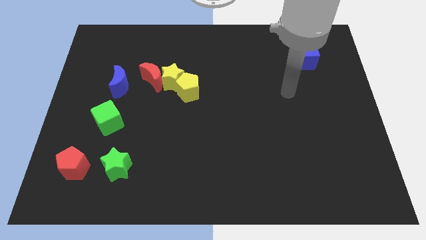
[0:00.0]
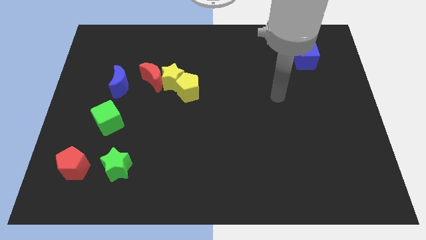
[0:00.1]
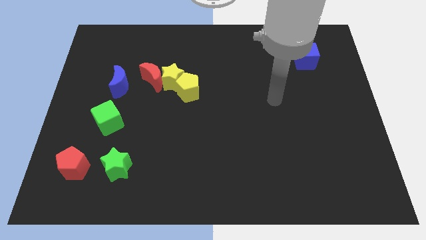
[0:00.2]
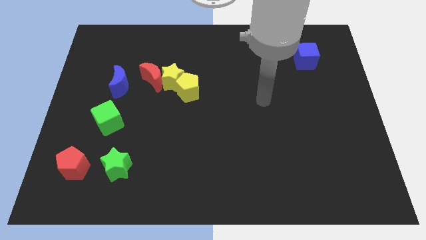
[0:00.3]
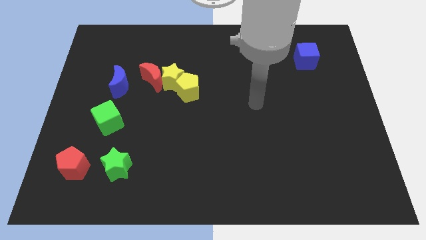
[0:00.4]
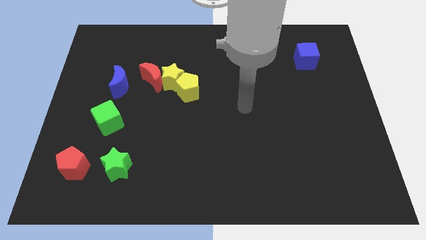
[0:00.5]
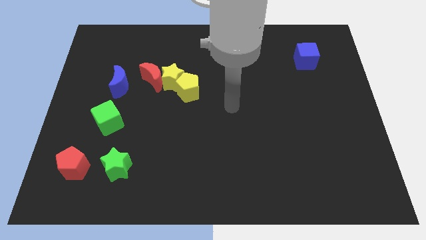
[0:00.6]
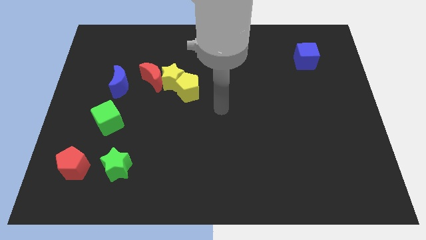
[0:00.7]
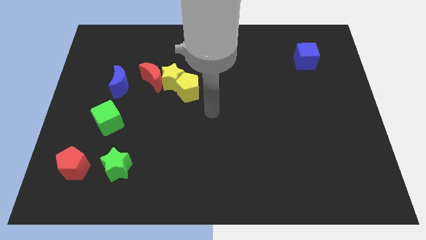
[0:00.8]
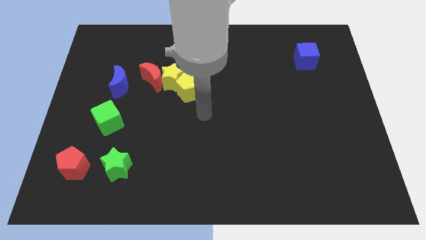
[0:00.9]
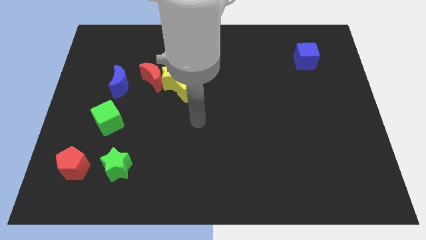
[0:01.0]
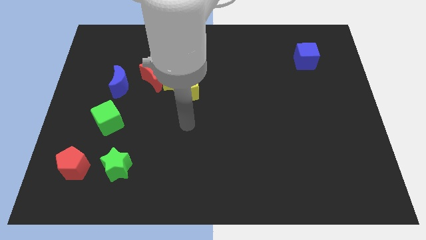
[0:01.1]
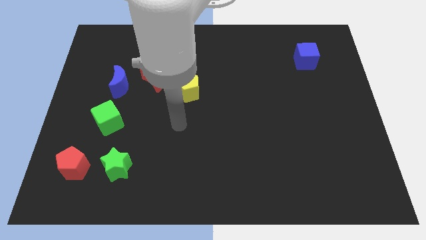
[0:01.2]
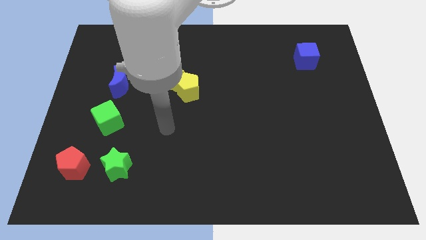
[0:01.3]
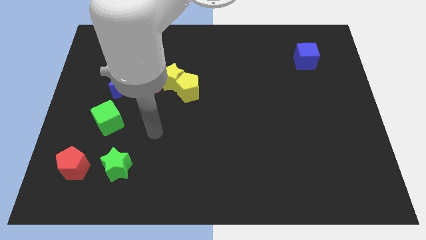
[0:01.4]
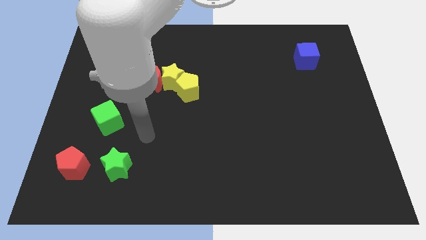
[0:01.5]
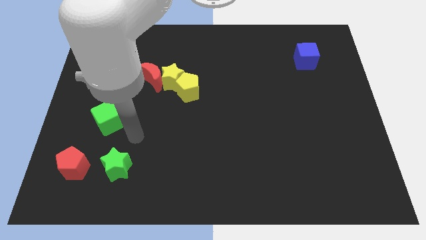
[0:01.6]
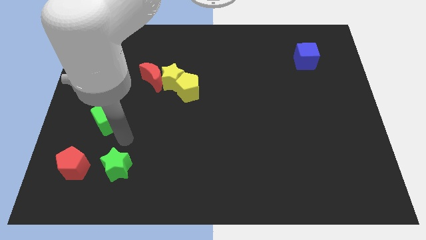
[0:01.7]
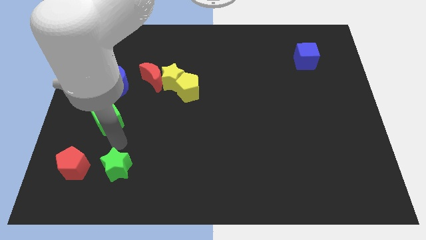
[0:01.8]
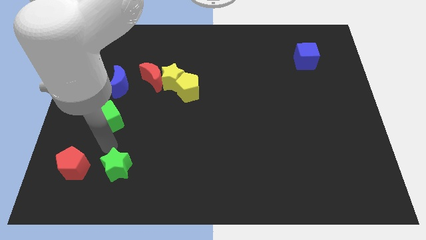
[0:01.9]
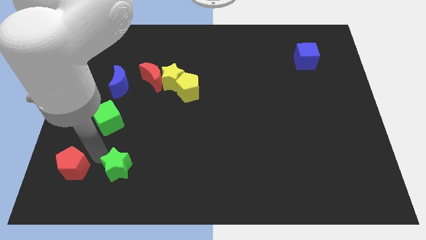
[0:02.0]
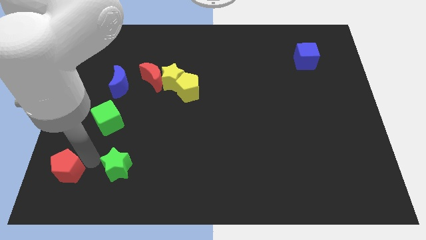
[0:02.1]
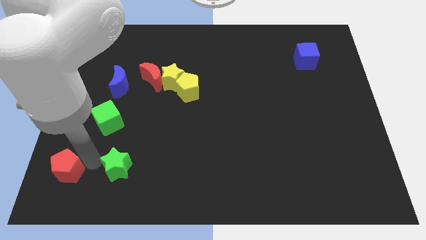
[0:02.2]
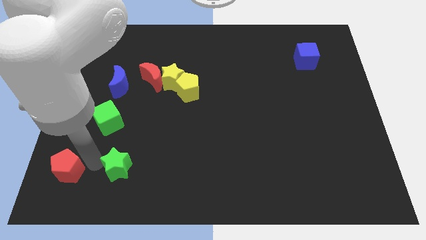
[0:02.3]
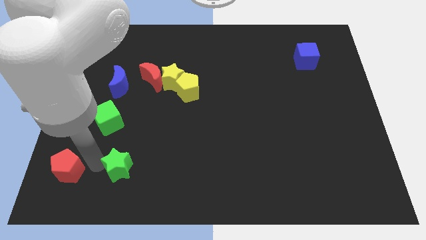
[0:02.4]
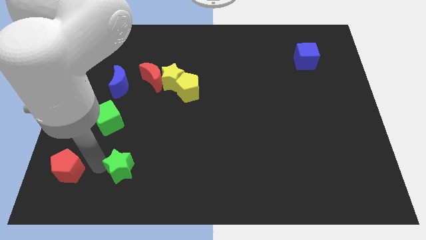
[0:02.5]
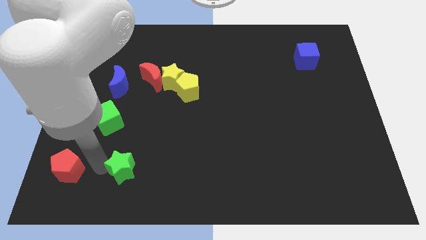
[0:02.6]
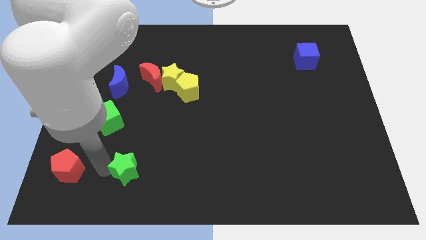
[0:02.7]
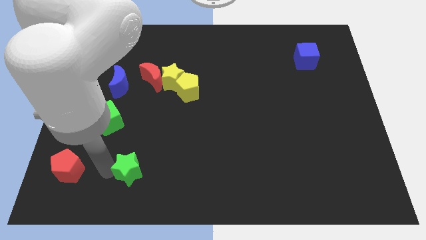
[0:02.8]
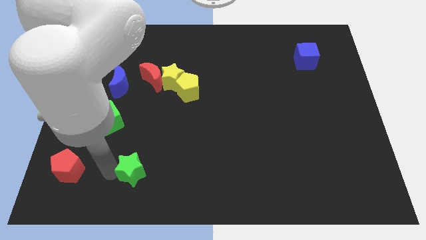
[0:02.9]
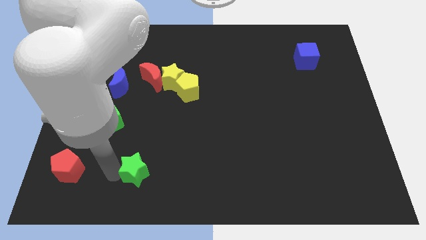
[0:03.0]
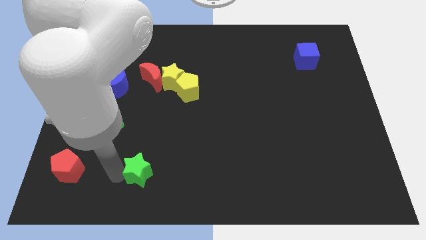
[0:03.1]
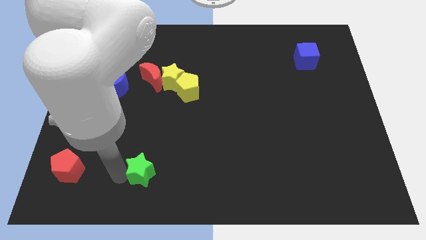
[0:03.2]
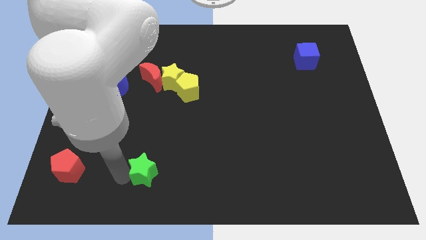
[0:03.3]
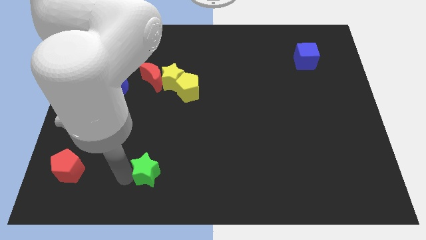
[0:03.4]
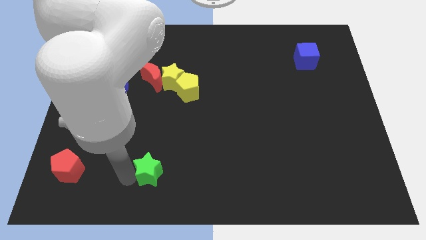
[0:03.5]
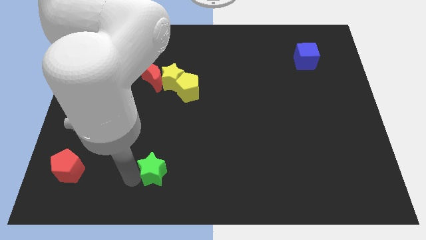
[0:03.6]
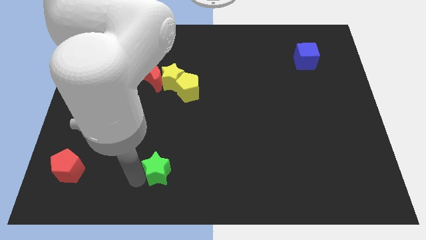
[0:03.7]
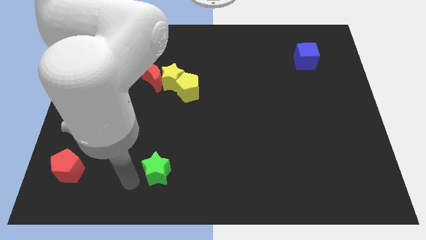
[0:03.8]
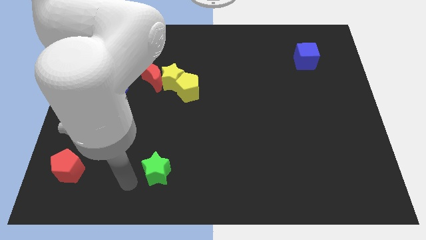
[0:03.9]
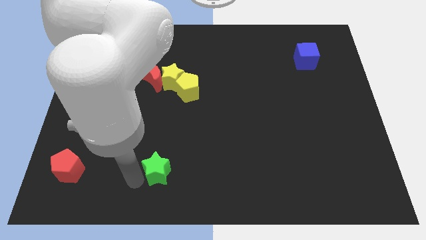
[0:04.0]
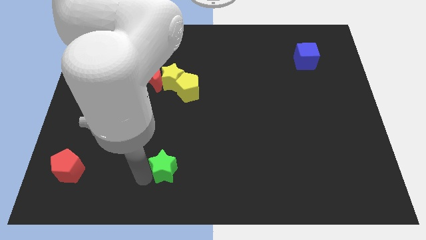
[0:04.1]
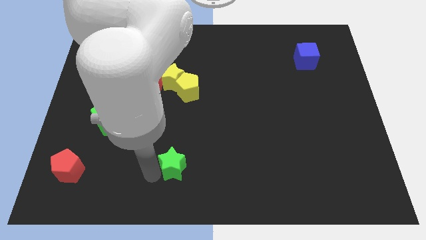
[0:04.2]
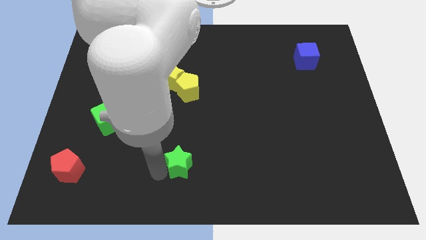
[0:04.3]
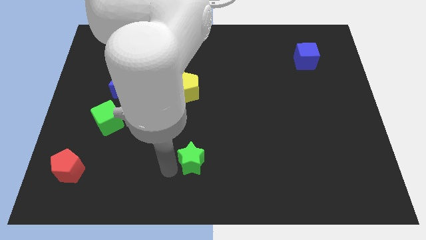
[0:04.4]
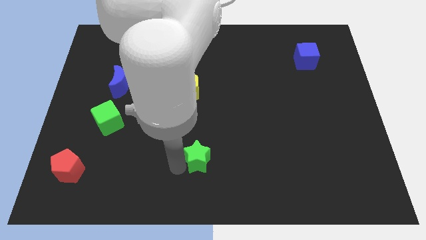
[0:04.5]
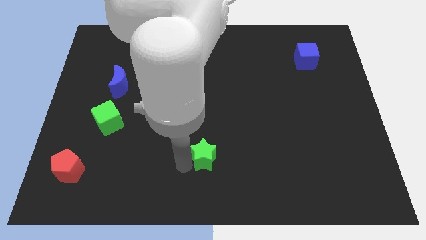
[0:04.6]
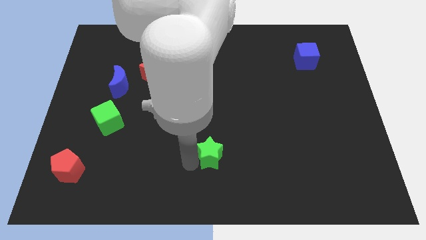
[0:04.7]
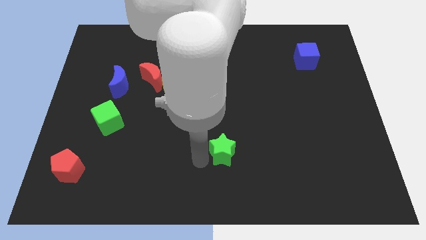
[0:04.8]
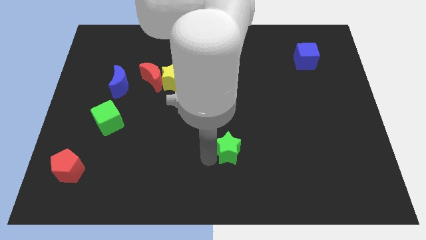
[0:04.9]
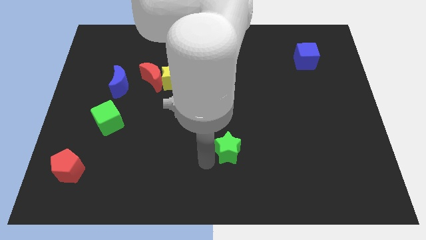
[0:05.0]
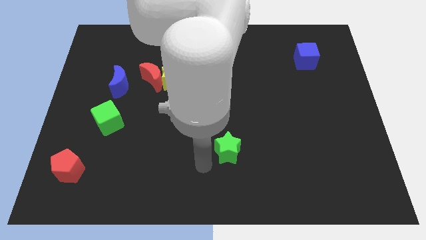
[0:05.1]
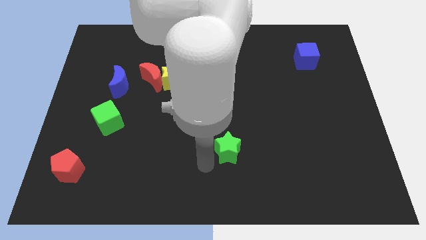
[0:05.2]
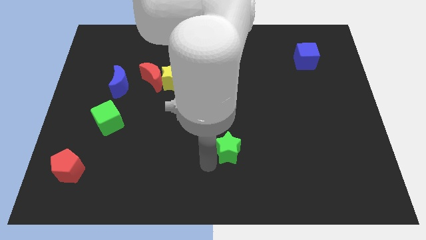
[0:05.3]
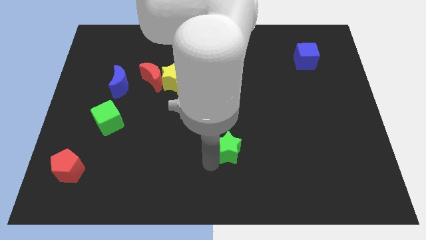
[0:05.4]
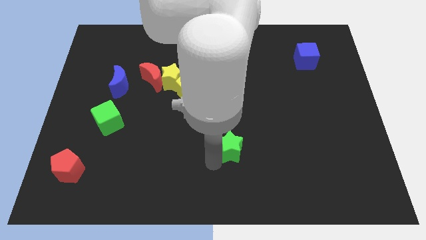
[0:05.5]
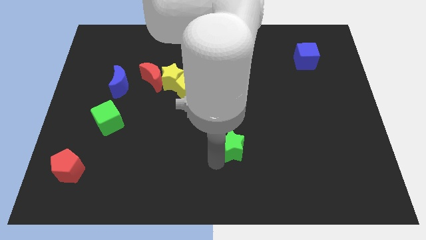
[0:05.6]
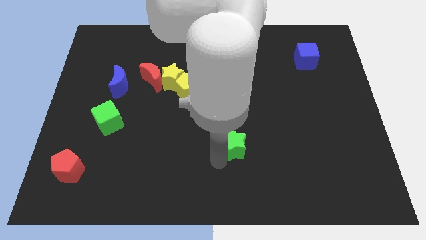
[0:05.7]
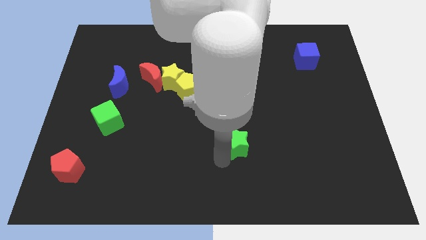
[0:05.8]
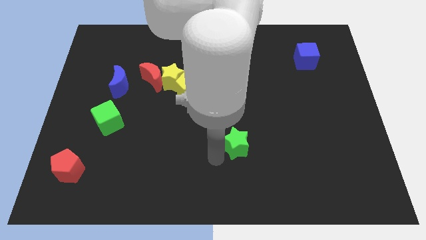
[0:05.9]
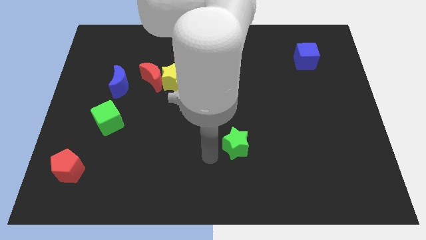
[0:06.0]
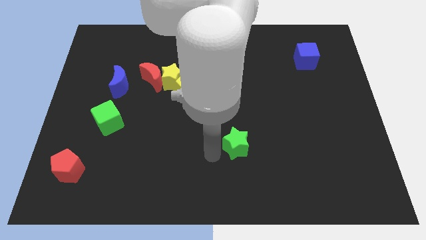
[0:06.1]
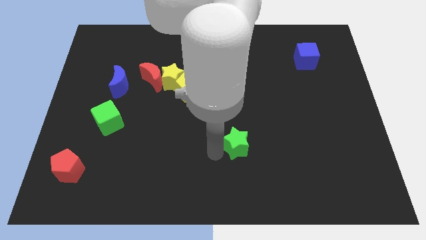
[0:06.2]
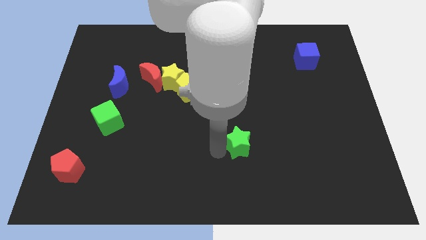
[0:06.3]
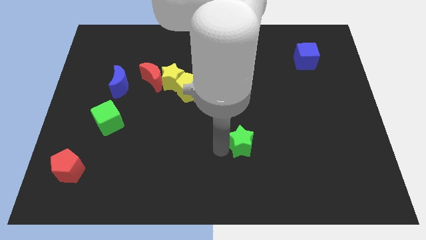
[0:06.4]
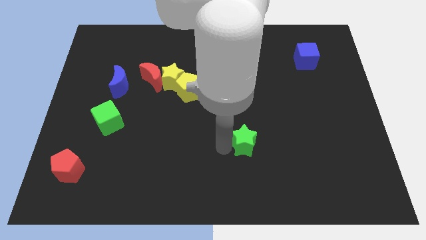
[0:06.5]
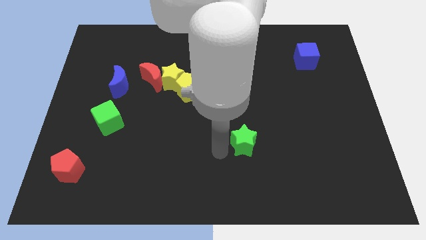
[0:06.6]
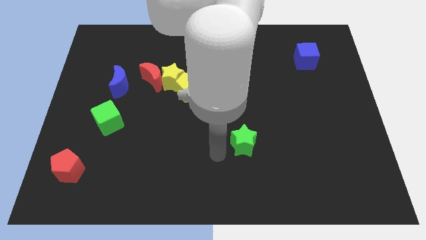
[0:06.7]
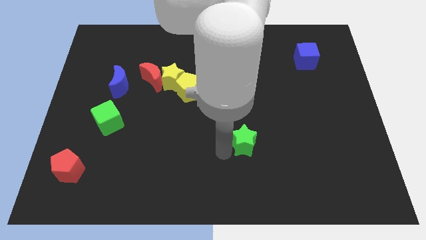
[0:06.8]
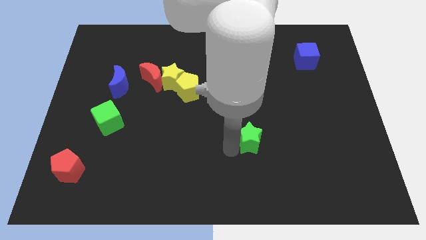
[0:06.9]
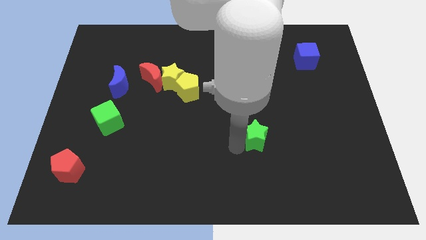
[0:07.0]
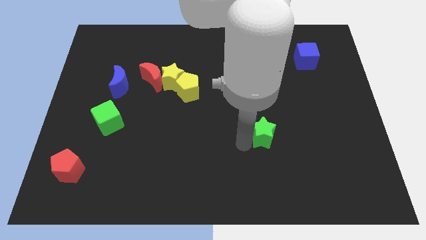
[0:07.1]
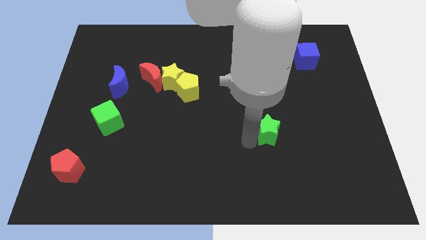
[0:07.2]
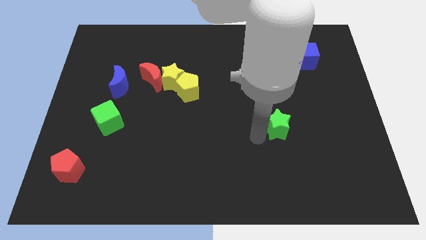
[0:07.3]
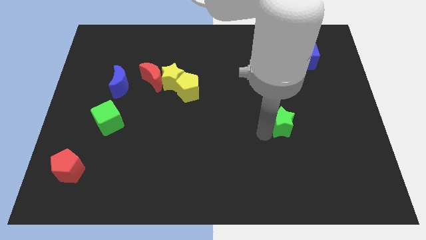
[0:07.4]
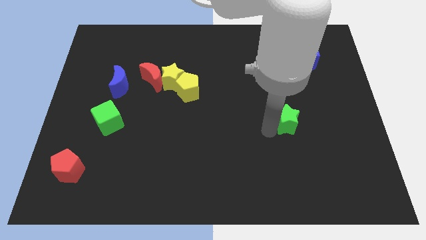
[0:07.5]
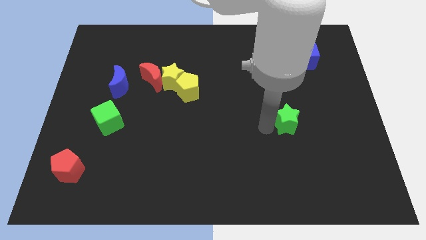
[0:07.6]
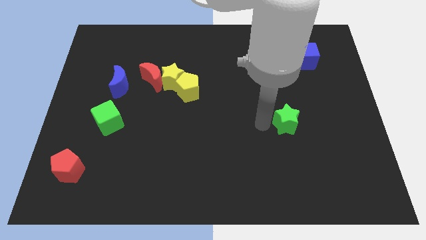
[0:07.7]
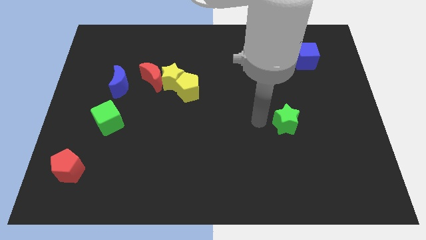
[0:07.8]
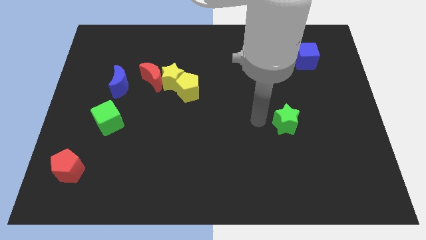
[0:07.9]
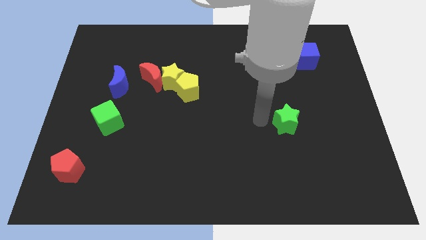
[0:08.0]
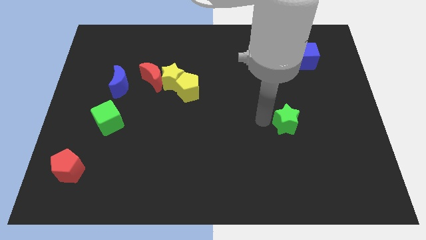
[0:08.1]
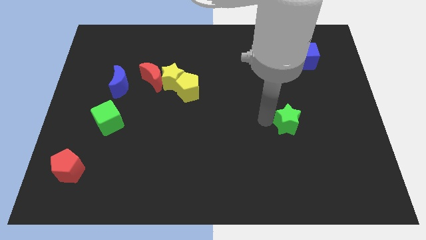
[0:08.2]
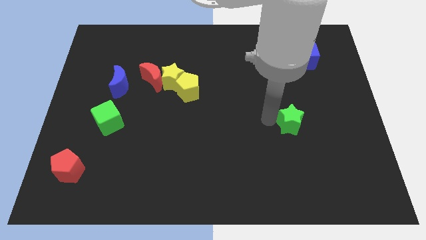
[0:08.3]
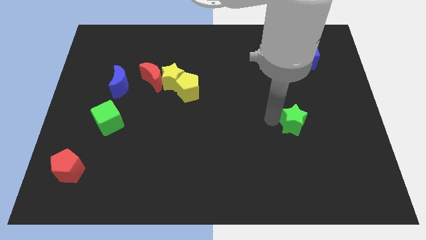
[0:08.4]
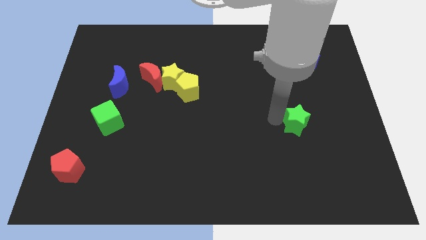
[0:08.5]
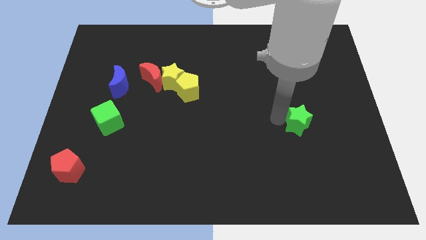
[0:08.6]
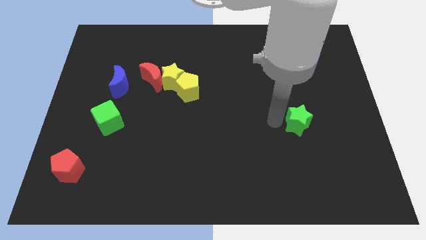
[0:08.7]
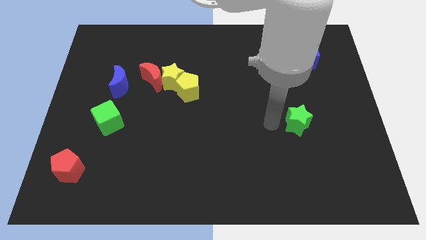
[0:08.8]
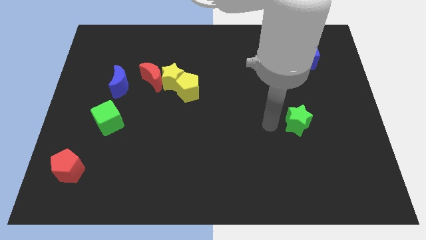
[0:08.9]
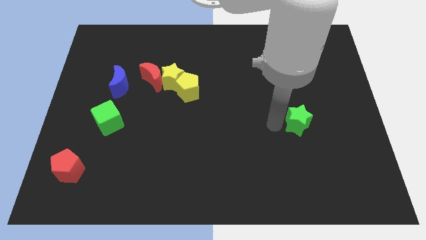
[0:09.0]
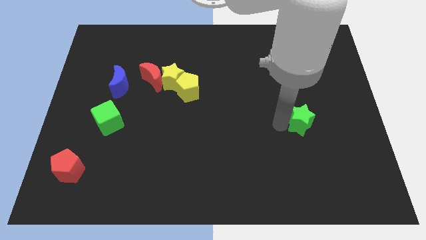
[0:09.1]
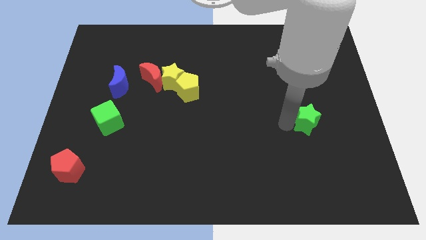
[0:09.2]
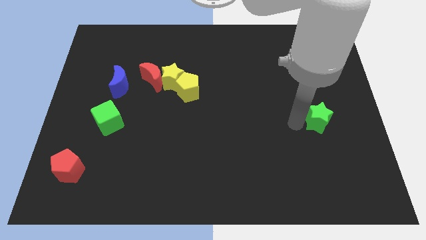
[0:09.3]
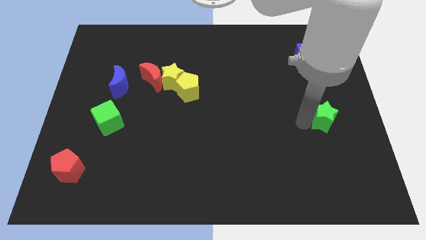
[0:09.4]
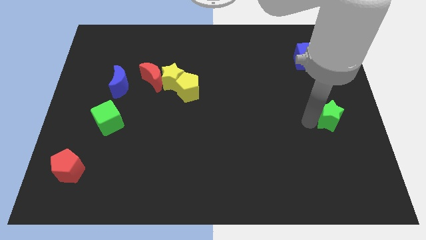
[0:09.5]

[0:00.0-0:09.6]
put the green star to the right side of the board
